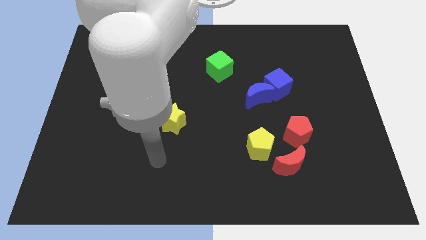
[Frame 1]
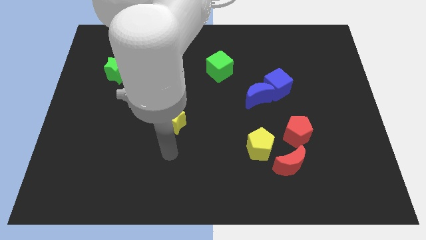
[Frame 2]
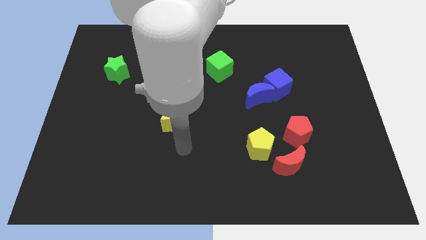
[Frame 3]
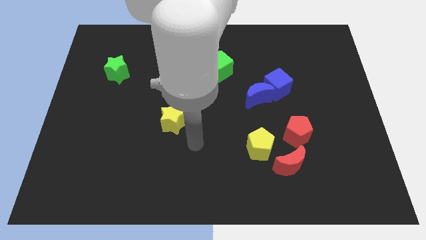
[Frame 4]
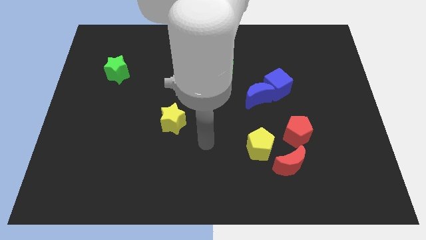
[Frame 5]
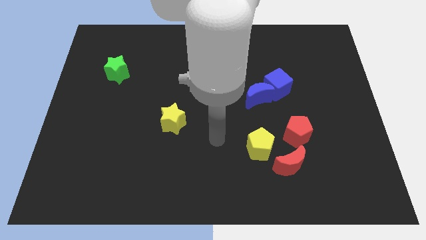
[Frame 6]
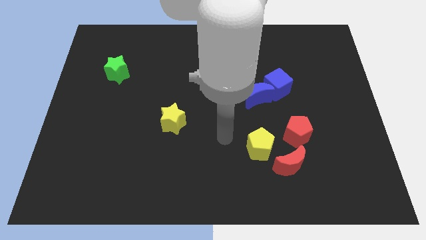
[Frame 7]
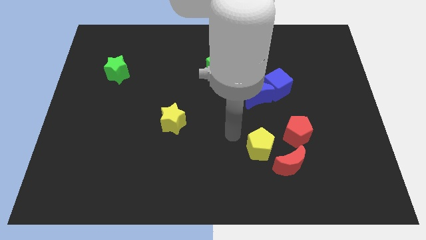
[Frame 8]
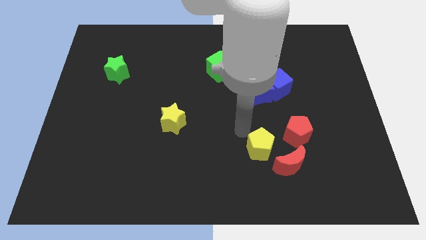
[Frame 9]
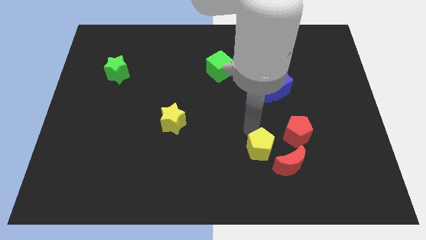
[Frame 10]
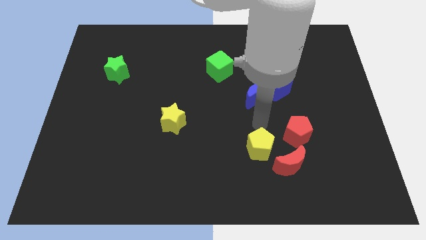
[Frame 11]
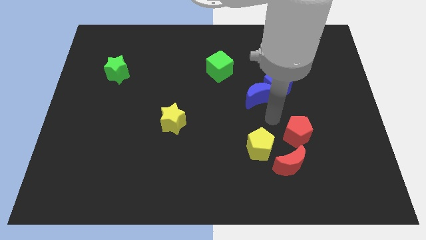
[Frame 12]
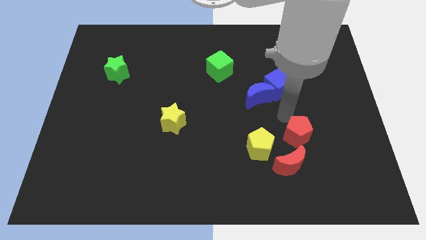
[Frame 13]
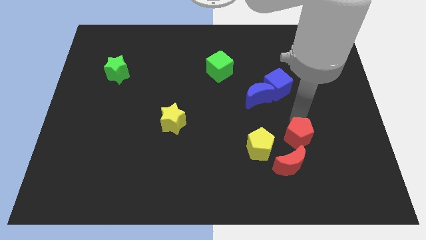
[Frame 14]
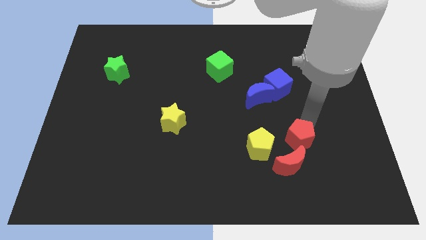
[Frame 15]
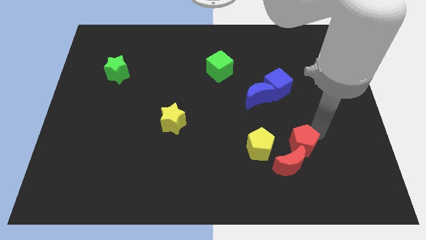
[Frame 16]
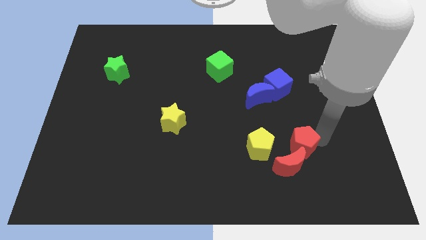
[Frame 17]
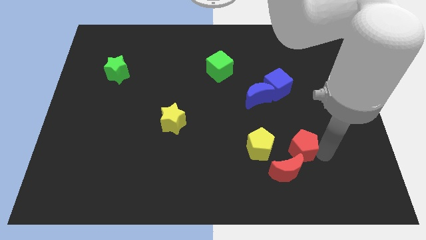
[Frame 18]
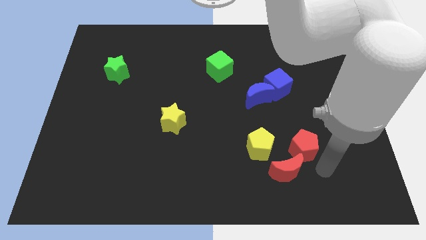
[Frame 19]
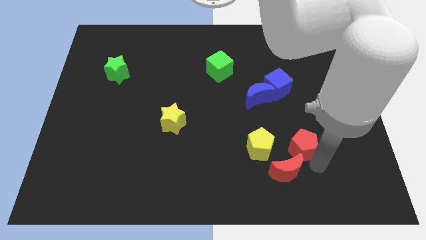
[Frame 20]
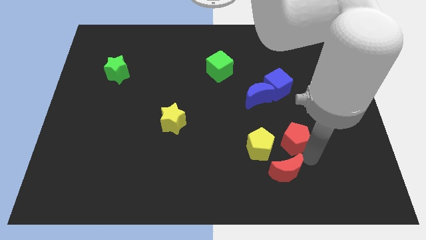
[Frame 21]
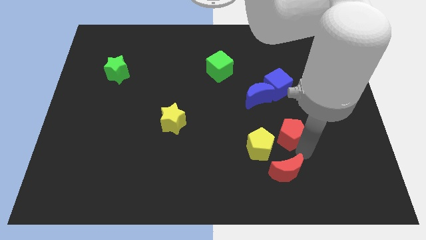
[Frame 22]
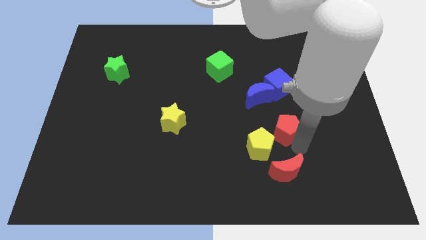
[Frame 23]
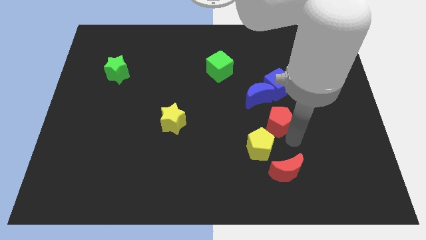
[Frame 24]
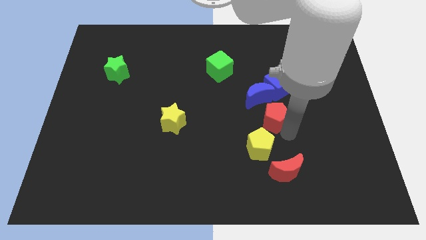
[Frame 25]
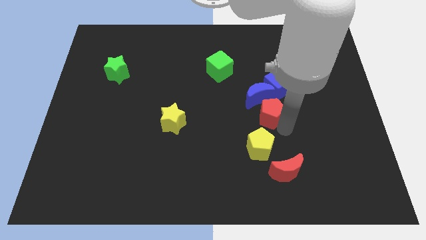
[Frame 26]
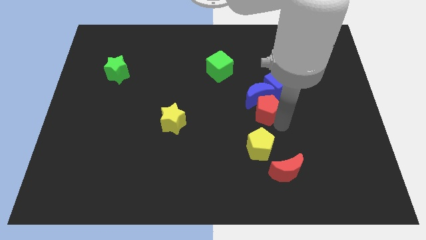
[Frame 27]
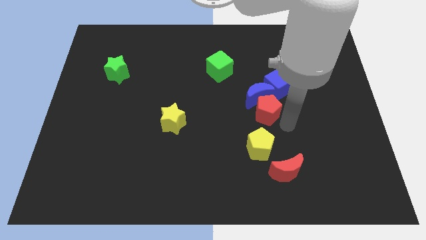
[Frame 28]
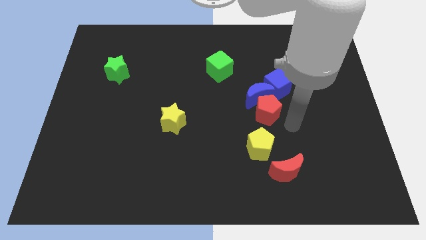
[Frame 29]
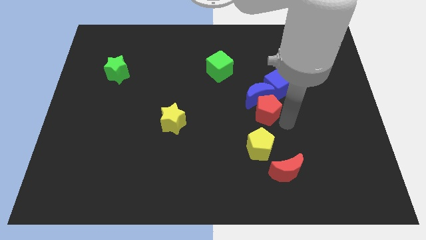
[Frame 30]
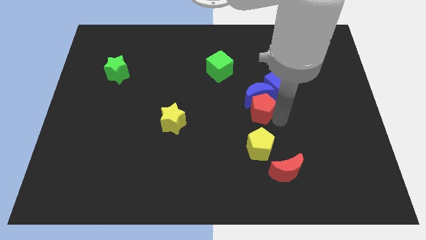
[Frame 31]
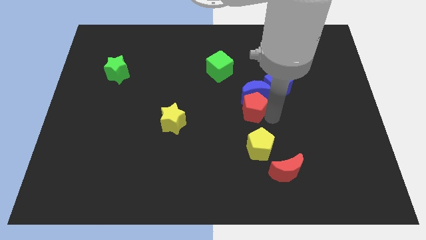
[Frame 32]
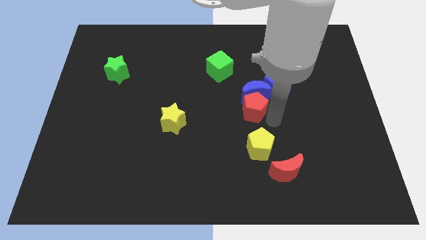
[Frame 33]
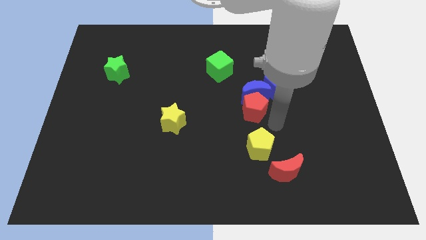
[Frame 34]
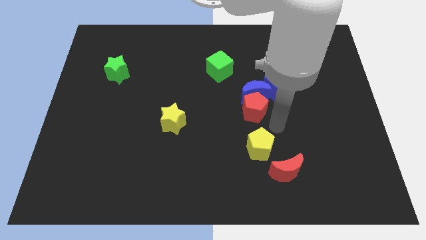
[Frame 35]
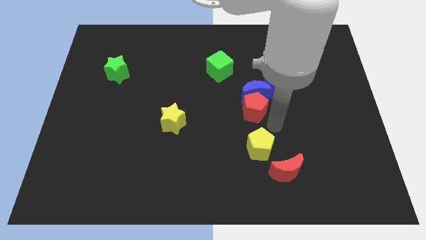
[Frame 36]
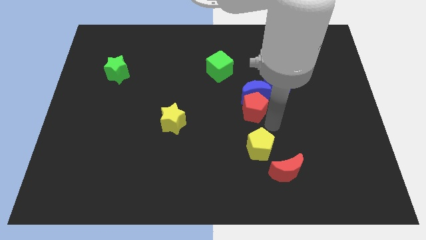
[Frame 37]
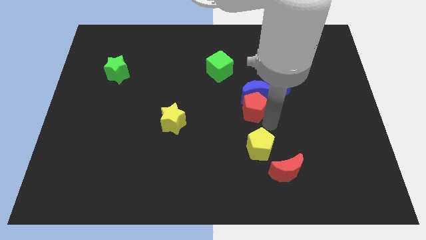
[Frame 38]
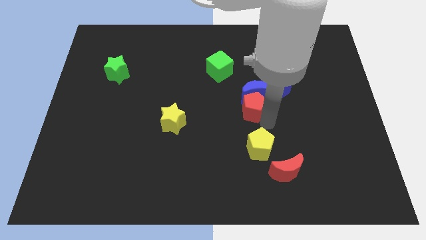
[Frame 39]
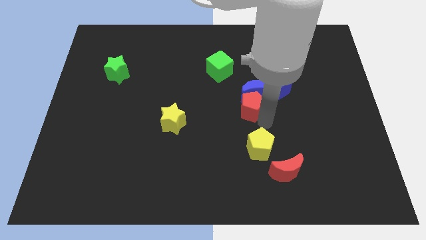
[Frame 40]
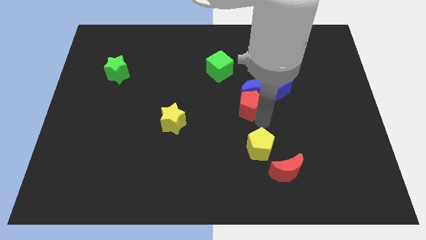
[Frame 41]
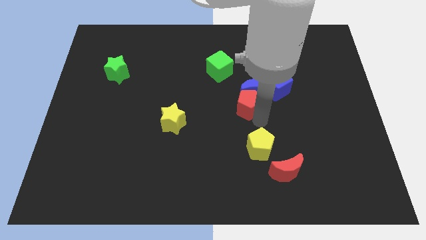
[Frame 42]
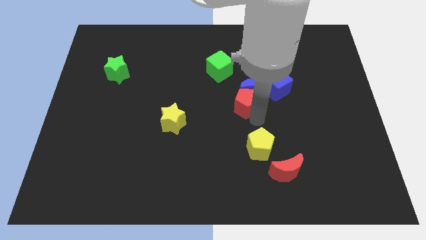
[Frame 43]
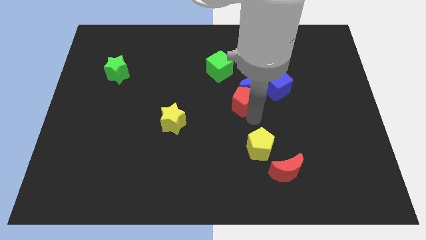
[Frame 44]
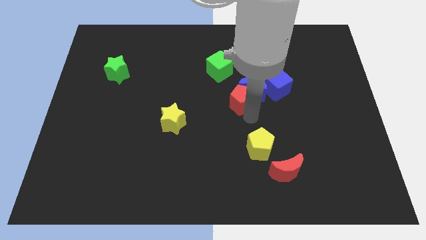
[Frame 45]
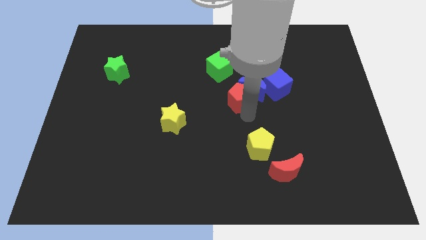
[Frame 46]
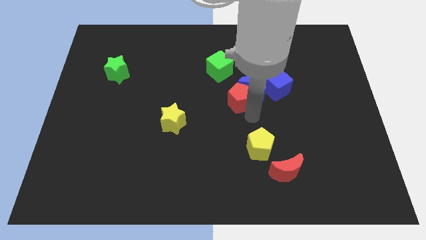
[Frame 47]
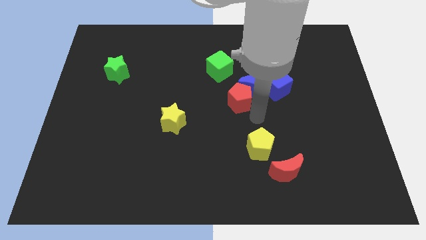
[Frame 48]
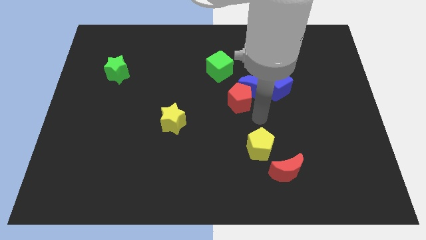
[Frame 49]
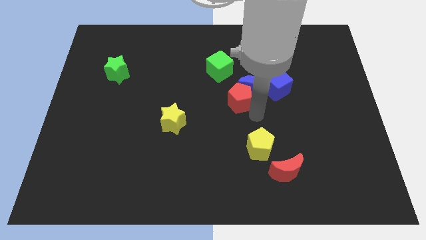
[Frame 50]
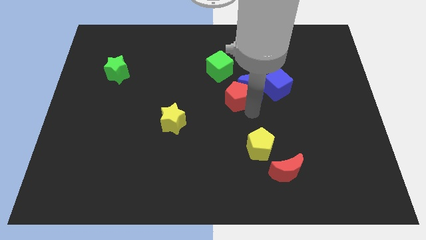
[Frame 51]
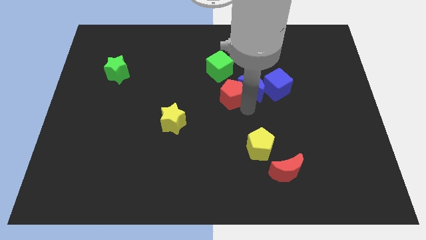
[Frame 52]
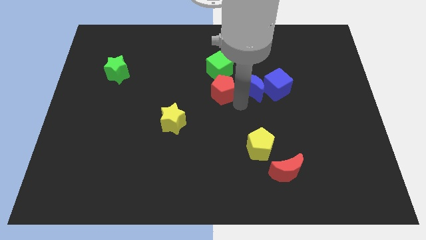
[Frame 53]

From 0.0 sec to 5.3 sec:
slide the red pentagon upwards and to the left diagonally

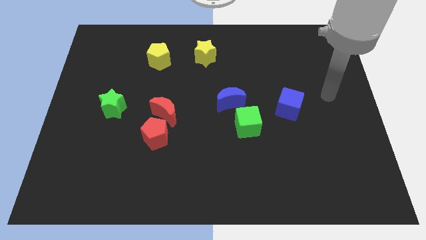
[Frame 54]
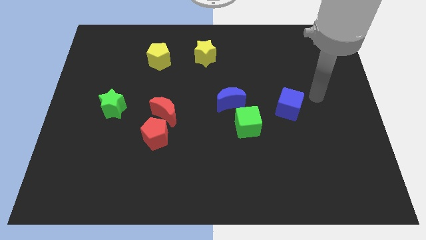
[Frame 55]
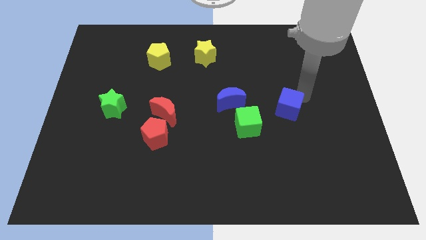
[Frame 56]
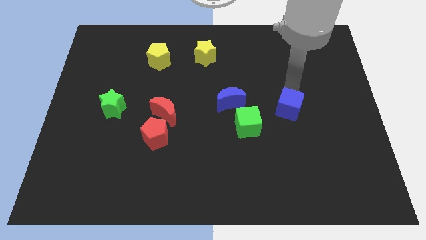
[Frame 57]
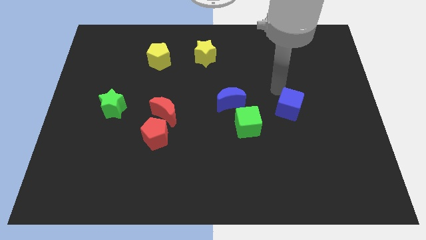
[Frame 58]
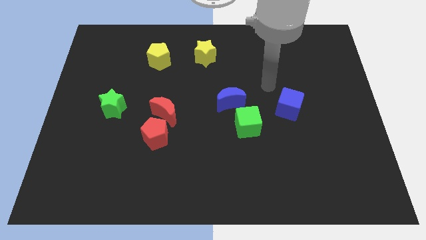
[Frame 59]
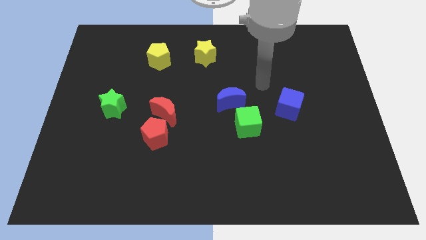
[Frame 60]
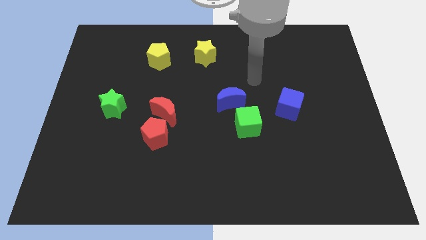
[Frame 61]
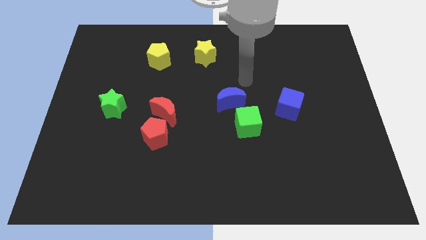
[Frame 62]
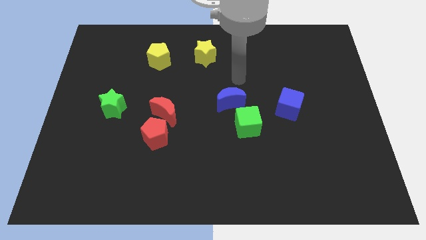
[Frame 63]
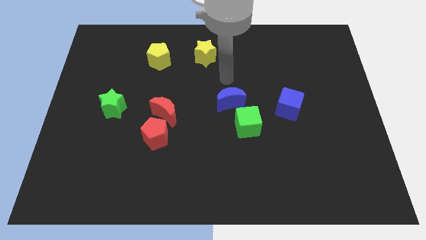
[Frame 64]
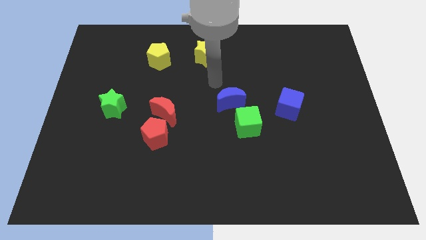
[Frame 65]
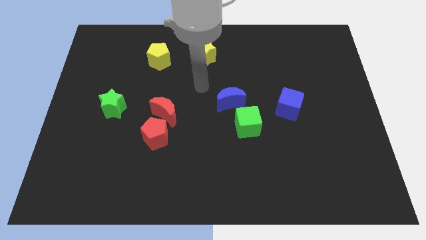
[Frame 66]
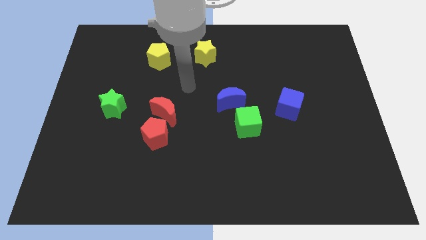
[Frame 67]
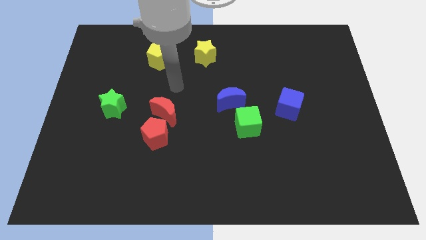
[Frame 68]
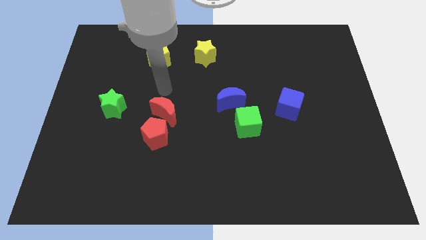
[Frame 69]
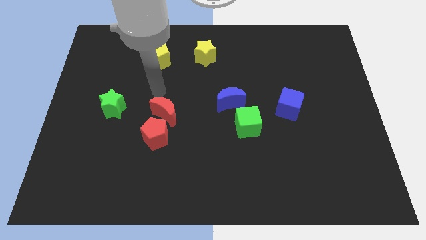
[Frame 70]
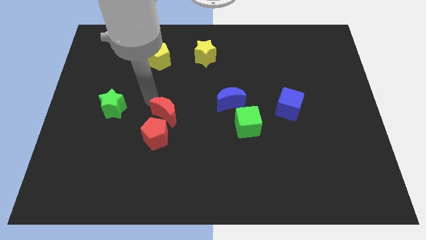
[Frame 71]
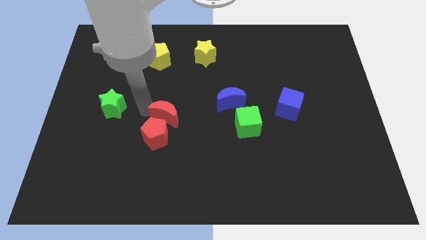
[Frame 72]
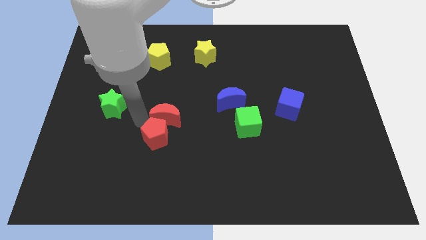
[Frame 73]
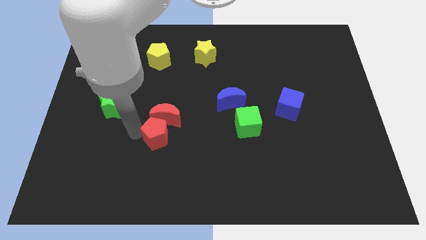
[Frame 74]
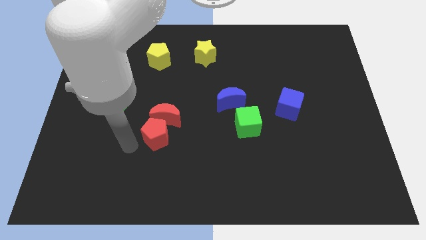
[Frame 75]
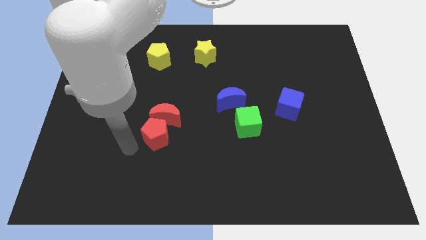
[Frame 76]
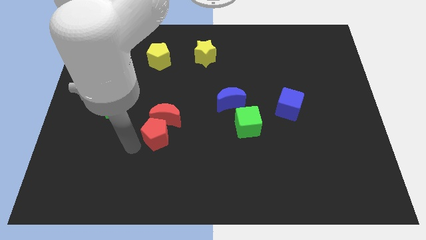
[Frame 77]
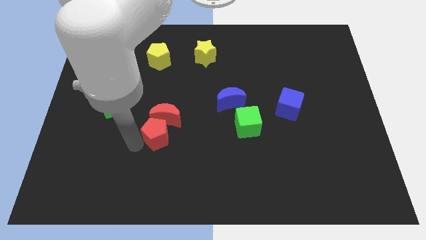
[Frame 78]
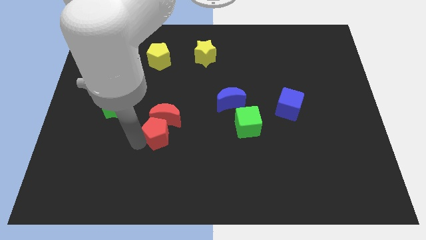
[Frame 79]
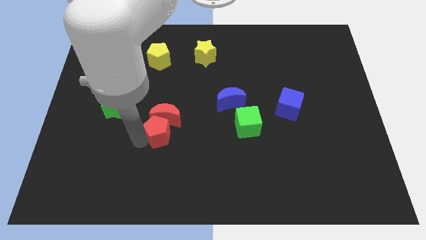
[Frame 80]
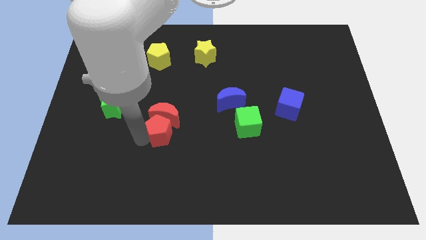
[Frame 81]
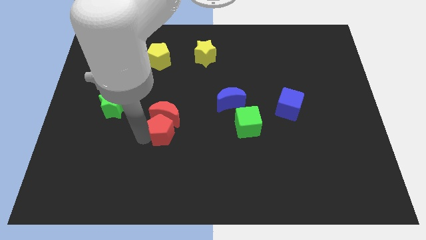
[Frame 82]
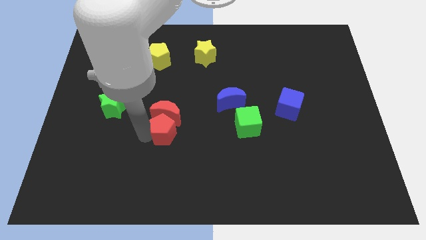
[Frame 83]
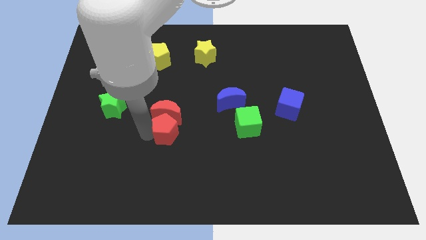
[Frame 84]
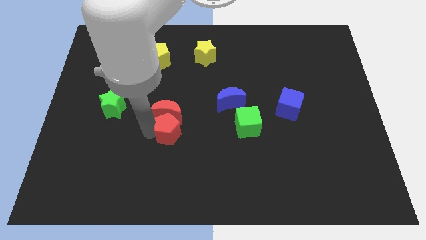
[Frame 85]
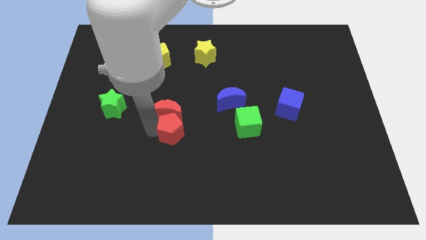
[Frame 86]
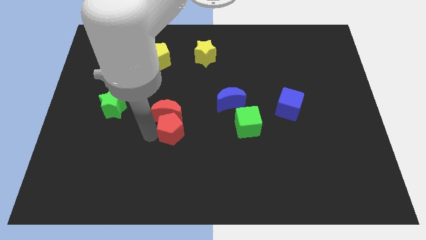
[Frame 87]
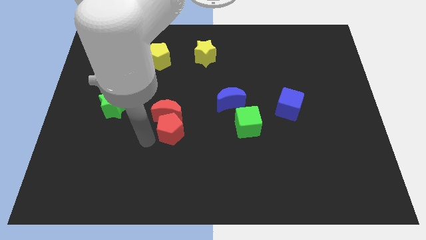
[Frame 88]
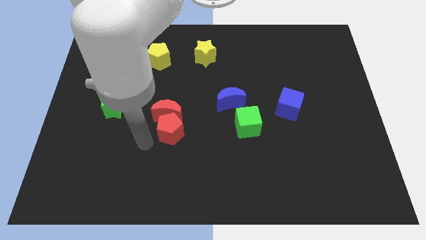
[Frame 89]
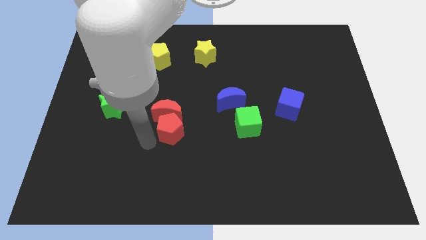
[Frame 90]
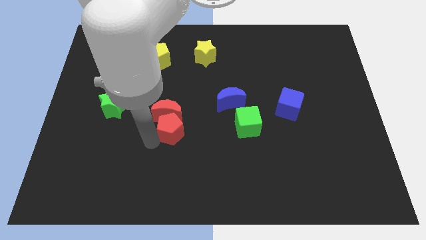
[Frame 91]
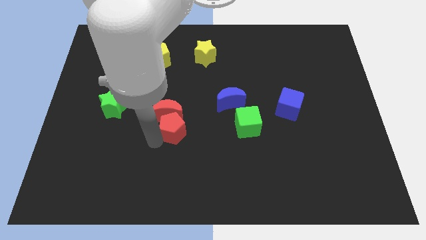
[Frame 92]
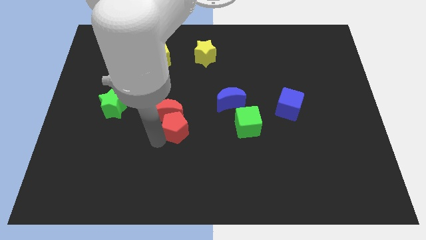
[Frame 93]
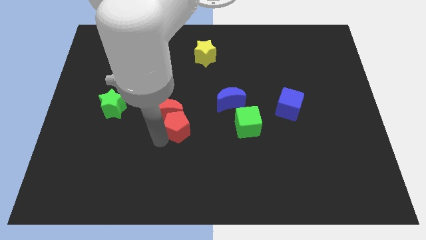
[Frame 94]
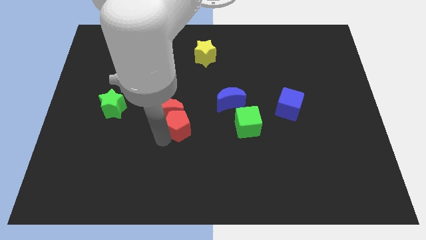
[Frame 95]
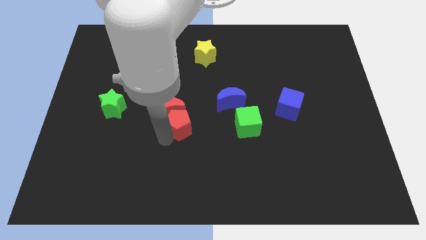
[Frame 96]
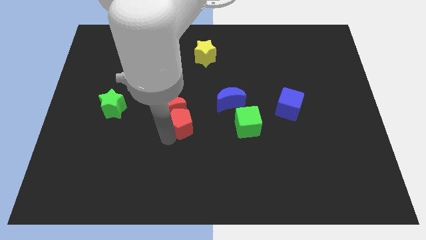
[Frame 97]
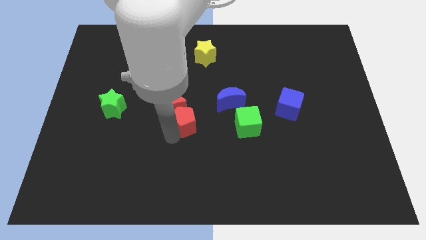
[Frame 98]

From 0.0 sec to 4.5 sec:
slightly push the red pentagon diagonally upwards and right
